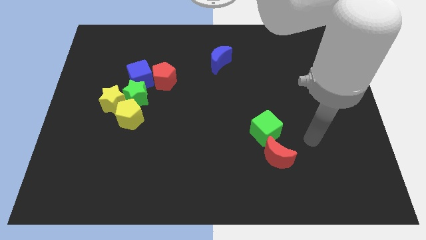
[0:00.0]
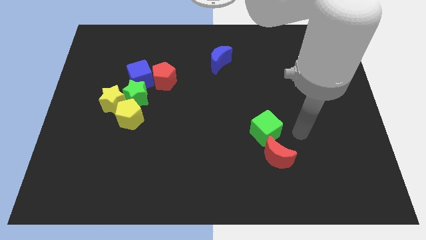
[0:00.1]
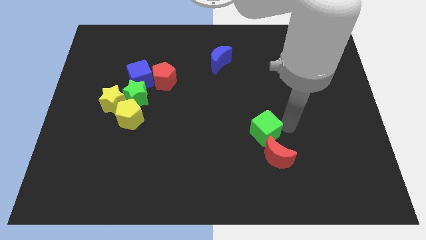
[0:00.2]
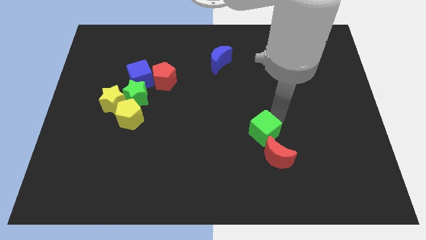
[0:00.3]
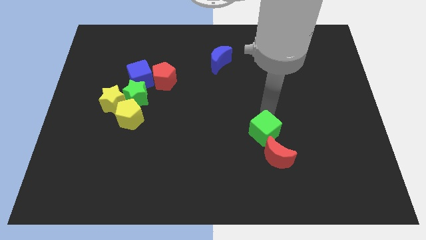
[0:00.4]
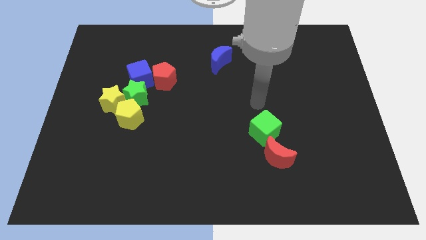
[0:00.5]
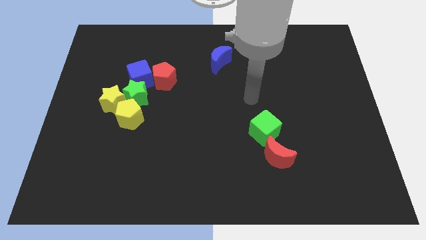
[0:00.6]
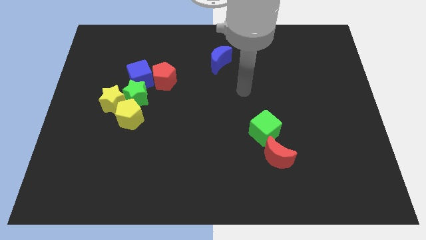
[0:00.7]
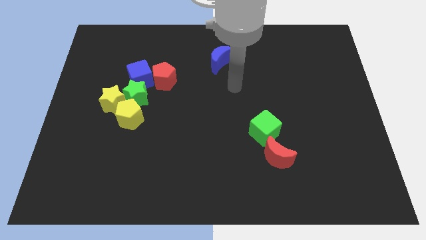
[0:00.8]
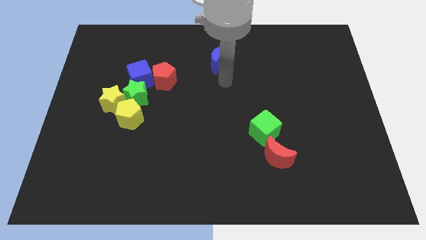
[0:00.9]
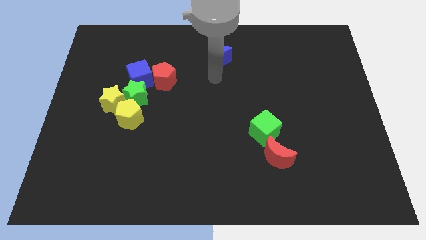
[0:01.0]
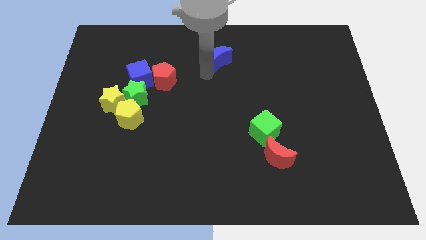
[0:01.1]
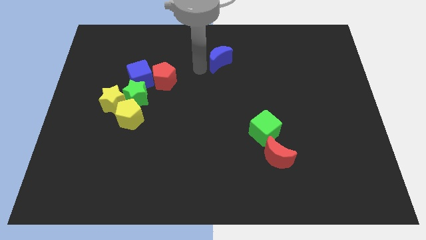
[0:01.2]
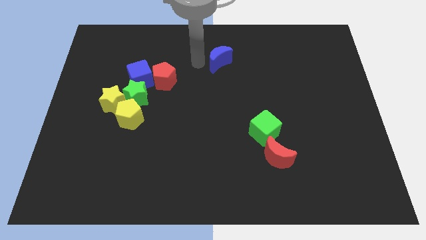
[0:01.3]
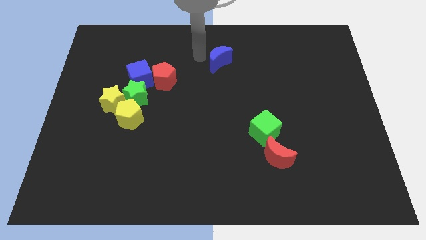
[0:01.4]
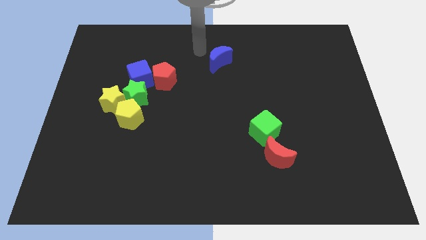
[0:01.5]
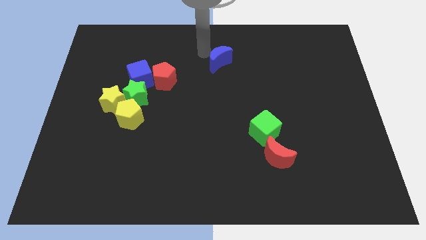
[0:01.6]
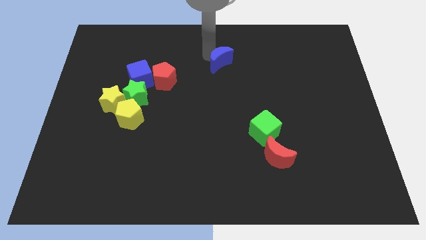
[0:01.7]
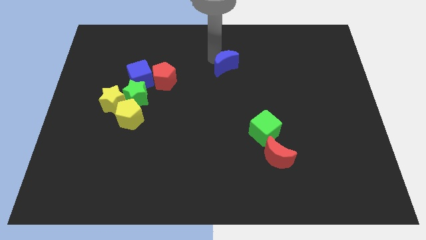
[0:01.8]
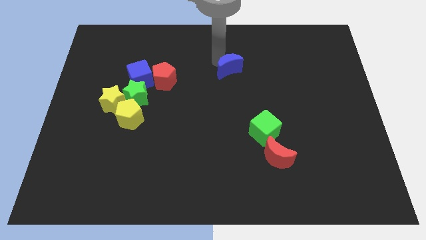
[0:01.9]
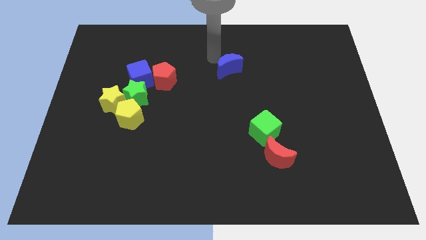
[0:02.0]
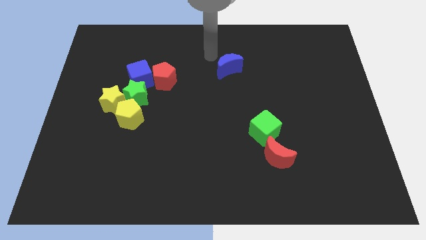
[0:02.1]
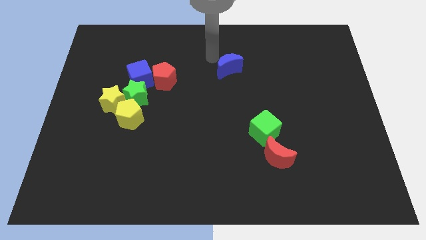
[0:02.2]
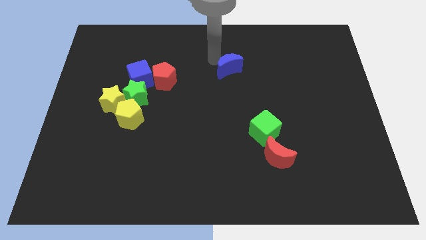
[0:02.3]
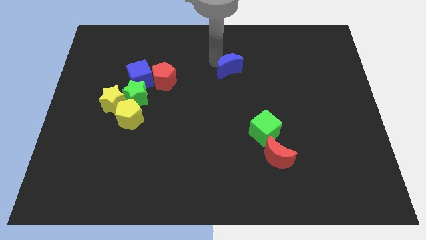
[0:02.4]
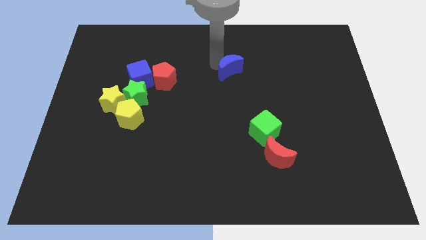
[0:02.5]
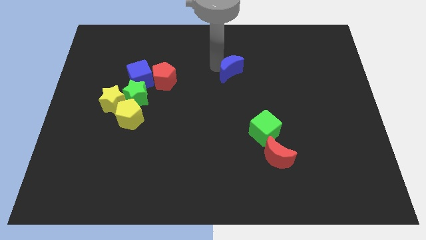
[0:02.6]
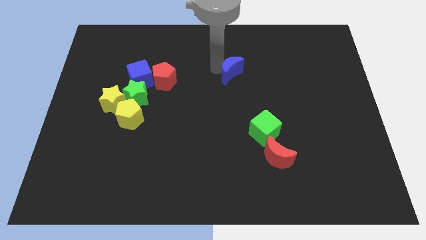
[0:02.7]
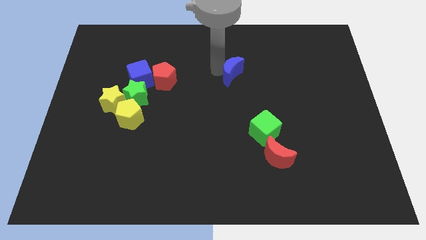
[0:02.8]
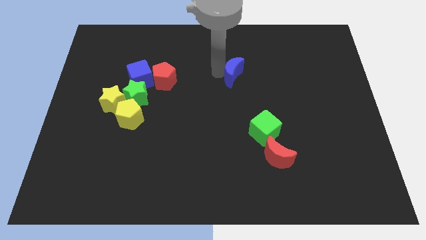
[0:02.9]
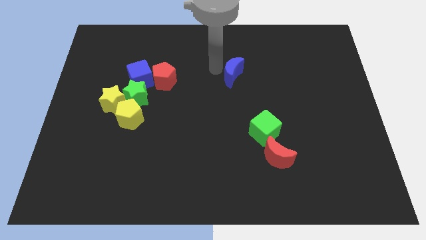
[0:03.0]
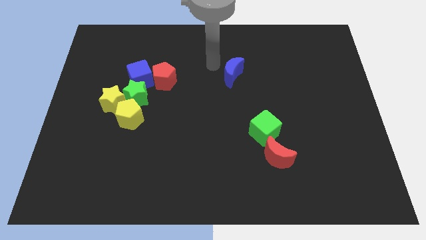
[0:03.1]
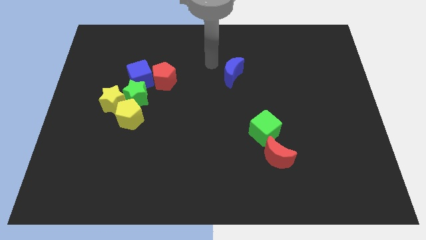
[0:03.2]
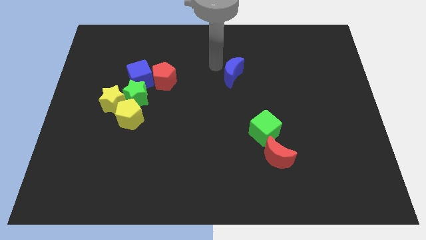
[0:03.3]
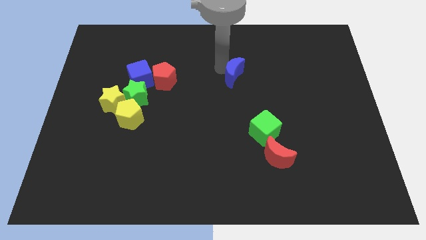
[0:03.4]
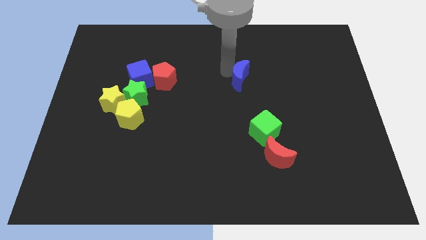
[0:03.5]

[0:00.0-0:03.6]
slide the blue moon downwards and then right somewhat

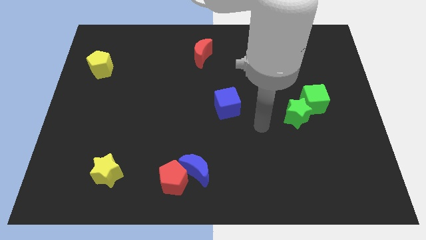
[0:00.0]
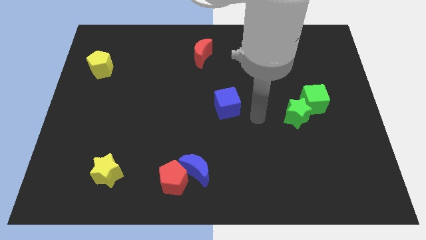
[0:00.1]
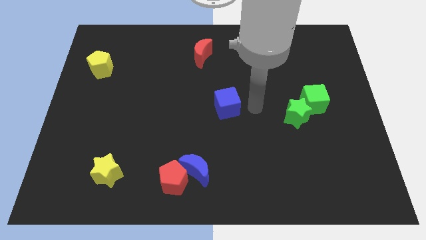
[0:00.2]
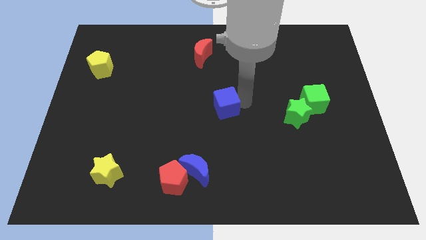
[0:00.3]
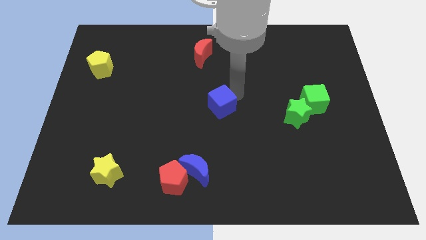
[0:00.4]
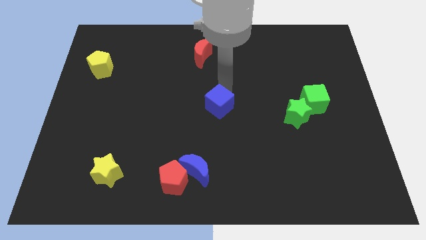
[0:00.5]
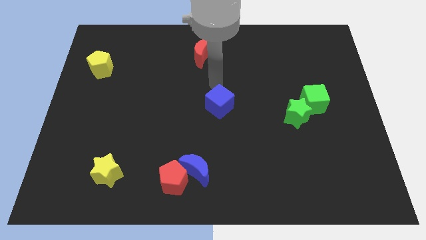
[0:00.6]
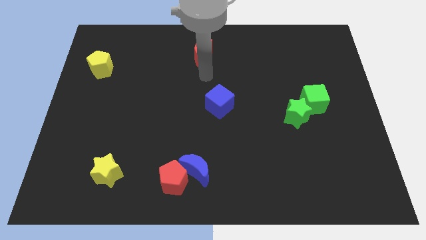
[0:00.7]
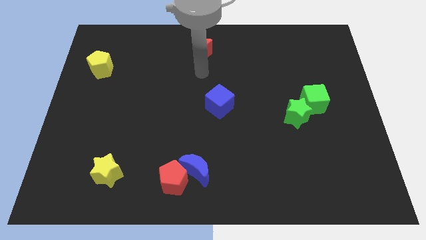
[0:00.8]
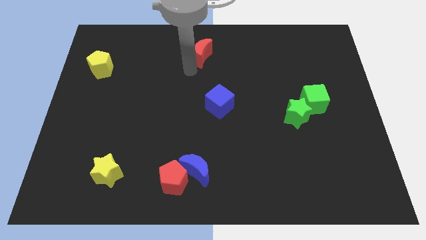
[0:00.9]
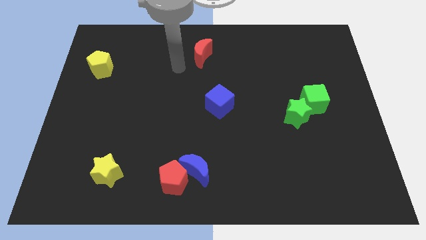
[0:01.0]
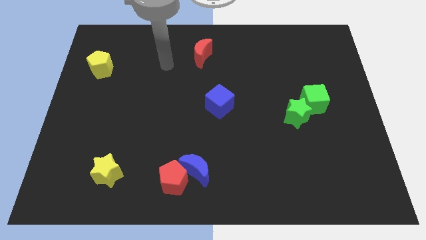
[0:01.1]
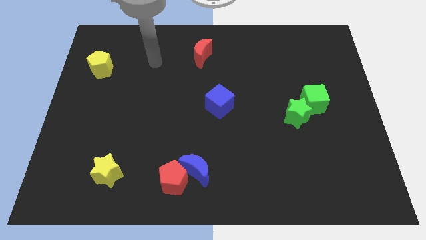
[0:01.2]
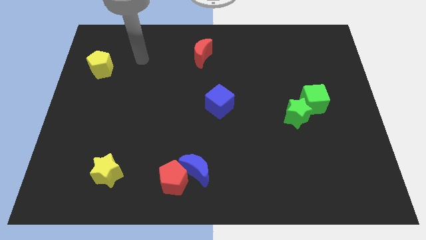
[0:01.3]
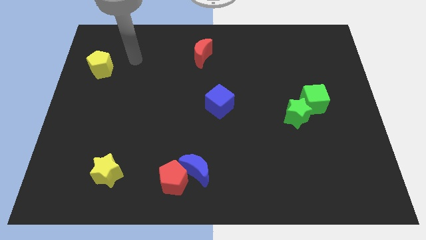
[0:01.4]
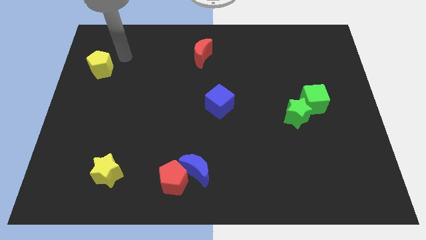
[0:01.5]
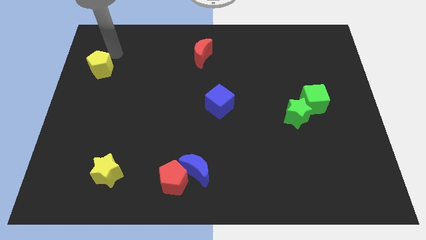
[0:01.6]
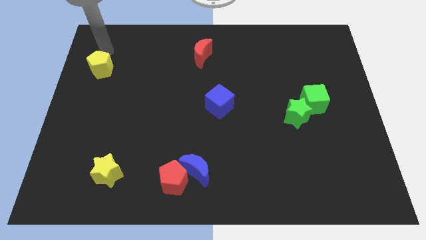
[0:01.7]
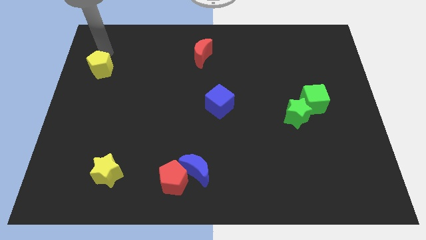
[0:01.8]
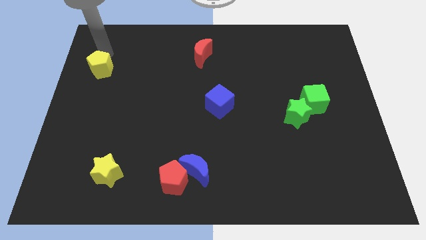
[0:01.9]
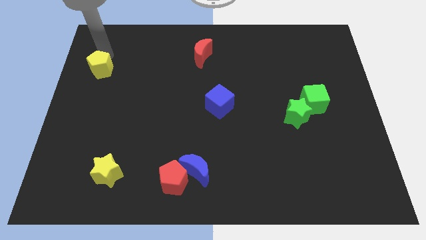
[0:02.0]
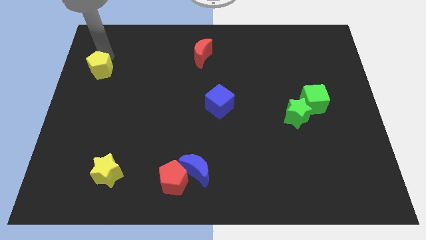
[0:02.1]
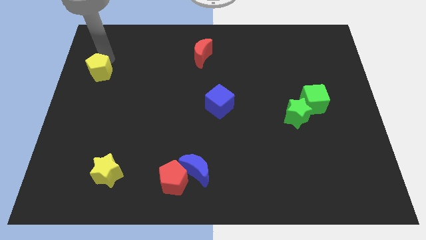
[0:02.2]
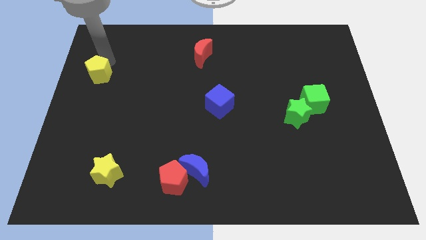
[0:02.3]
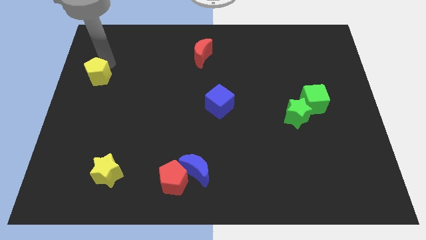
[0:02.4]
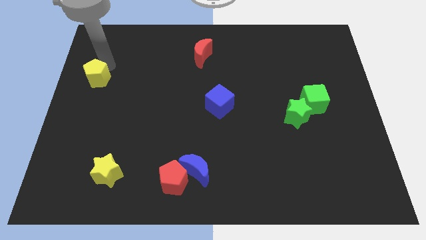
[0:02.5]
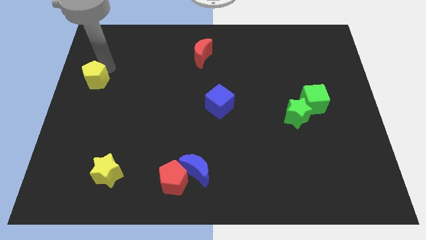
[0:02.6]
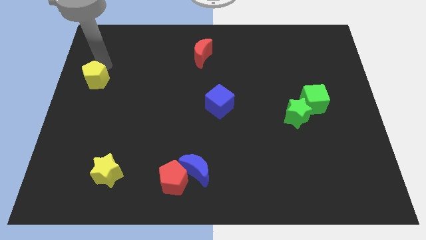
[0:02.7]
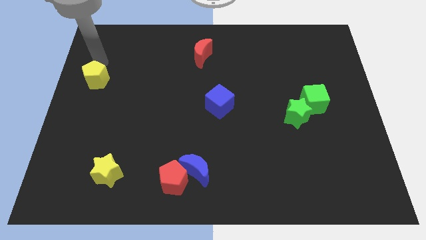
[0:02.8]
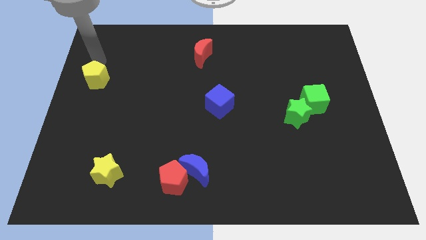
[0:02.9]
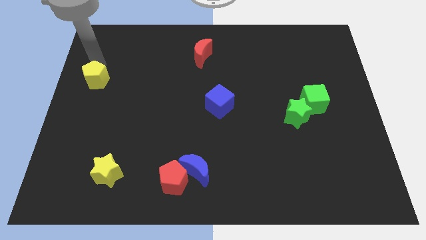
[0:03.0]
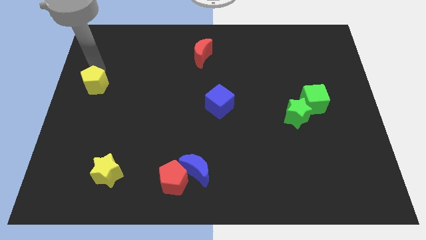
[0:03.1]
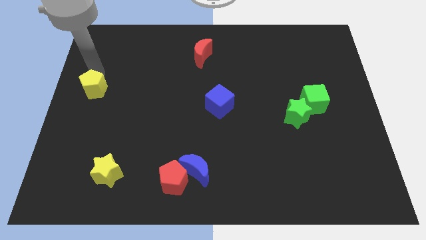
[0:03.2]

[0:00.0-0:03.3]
push the yellow pentagon a little downwards

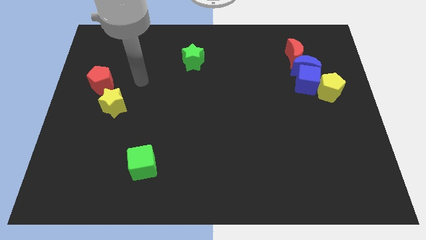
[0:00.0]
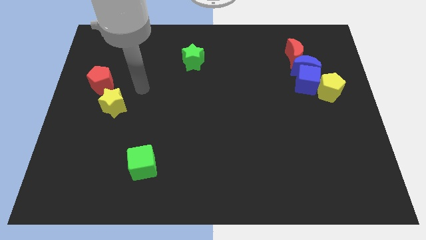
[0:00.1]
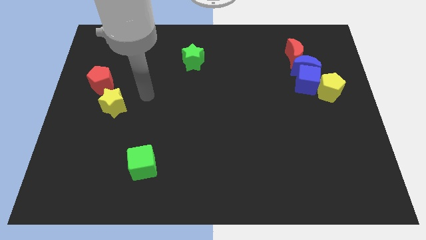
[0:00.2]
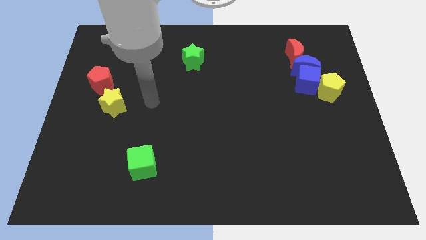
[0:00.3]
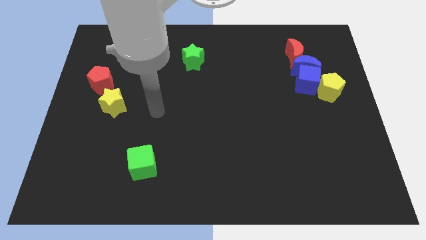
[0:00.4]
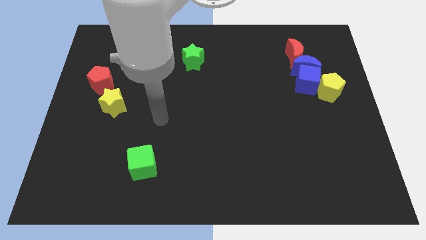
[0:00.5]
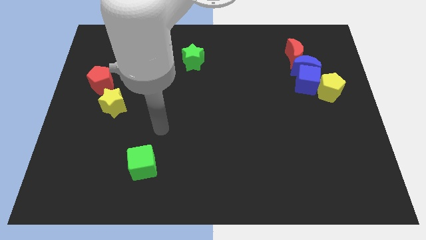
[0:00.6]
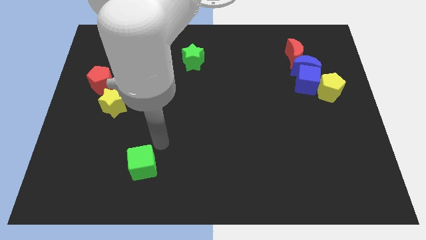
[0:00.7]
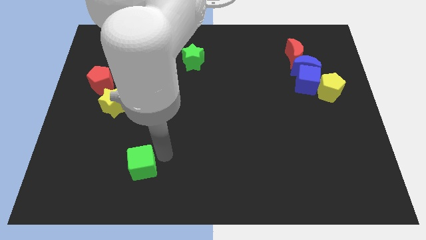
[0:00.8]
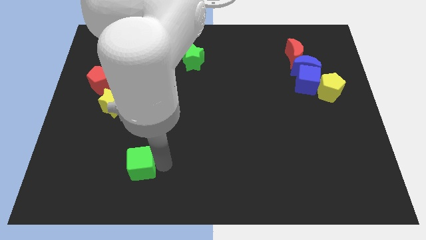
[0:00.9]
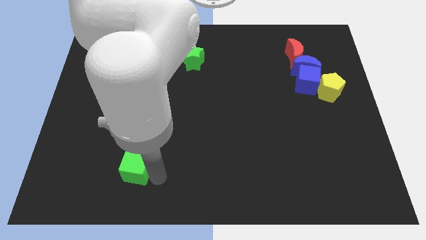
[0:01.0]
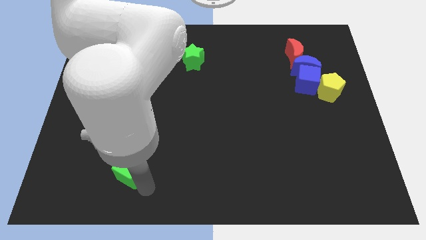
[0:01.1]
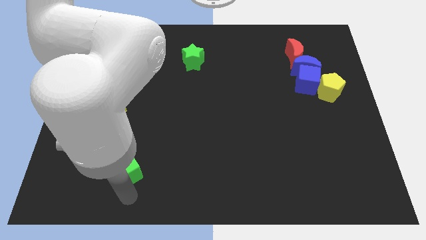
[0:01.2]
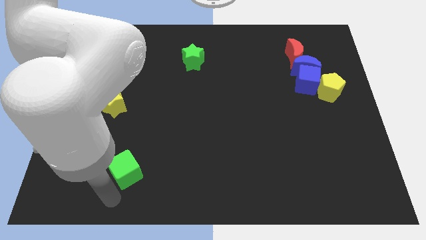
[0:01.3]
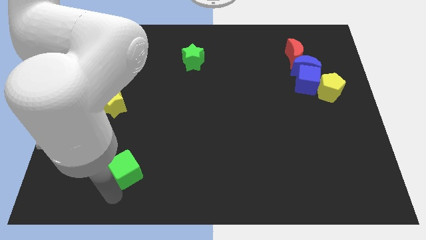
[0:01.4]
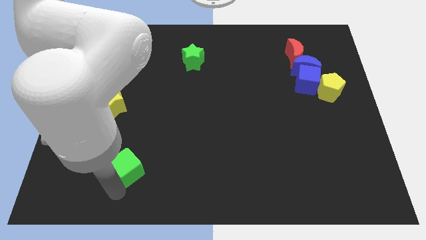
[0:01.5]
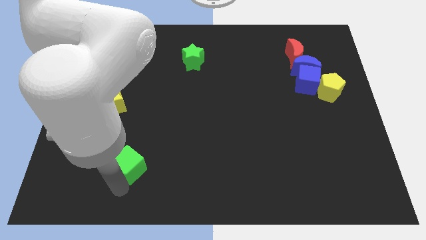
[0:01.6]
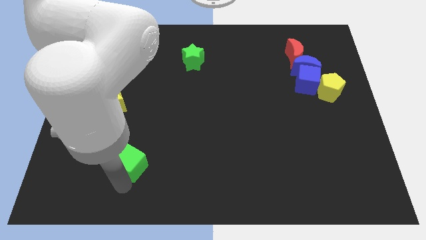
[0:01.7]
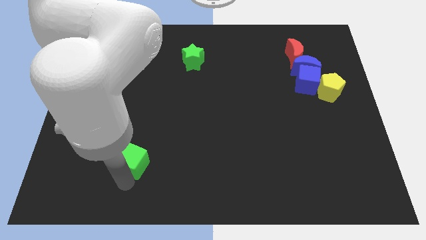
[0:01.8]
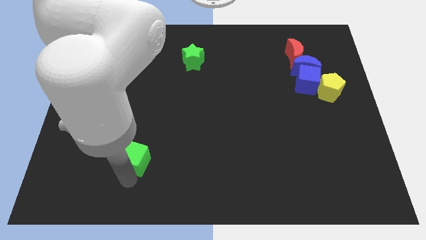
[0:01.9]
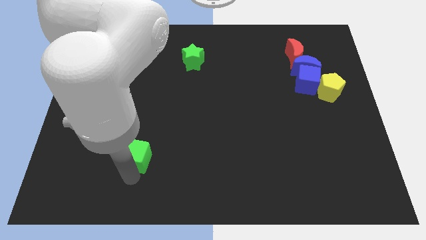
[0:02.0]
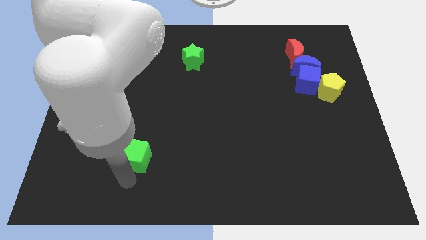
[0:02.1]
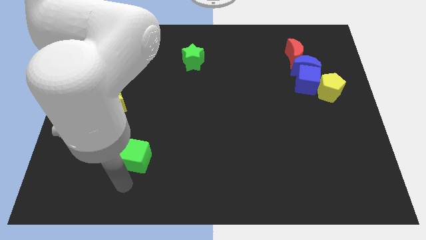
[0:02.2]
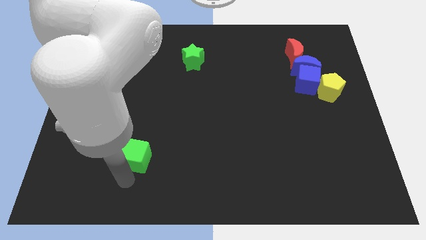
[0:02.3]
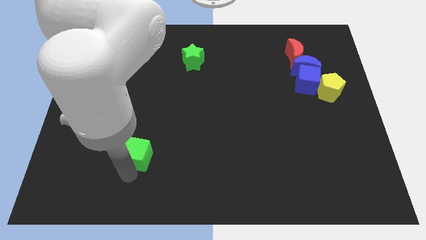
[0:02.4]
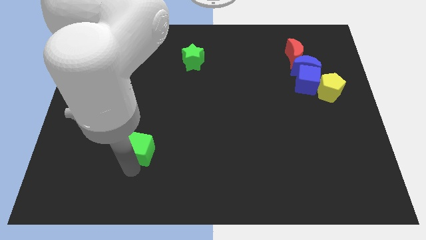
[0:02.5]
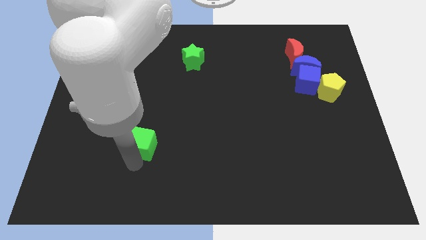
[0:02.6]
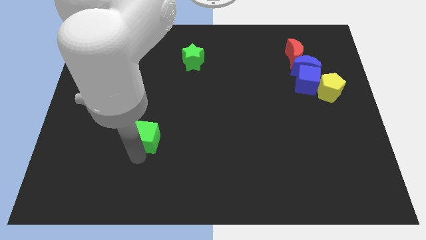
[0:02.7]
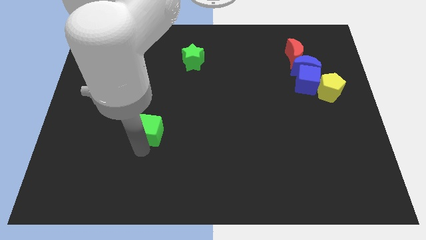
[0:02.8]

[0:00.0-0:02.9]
slide the green cube a little upwards
